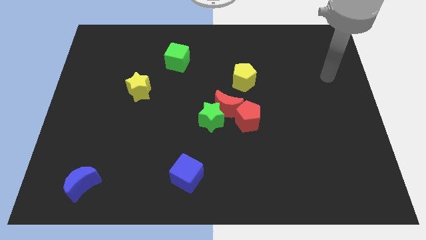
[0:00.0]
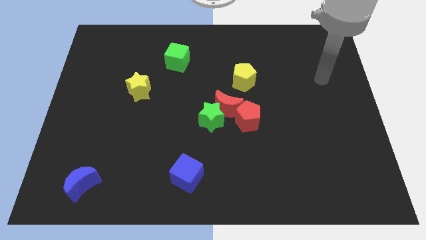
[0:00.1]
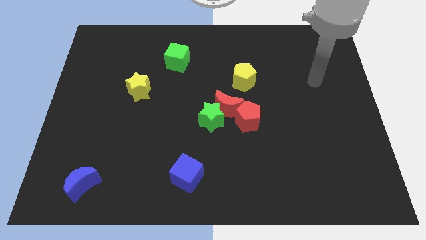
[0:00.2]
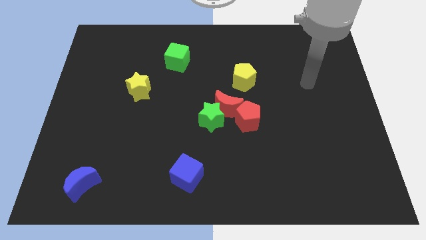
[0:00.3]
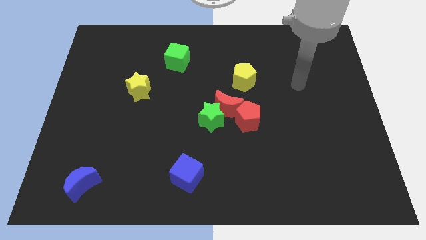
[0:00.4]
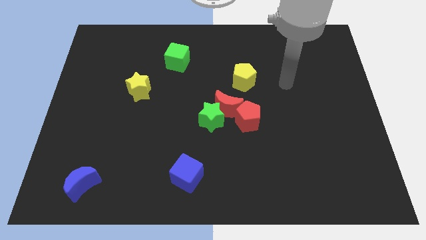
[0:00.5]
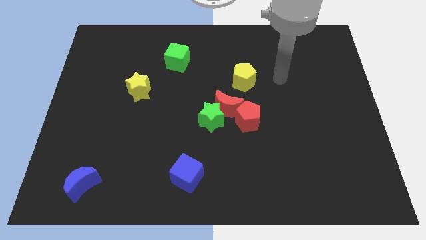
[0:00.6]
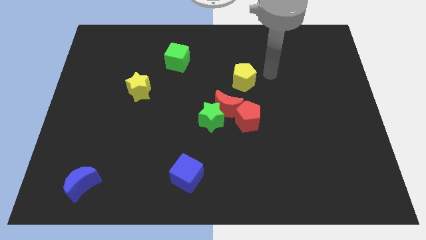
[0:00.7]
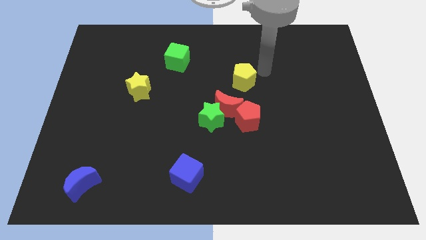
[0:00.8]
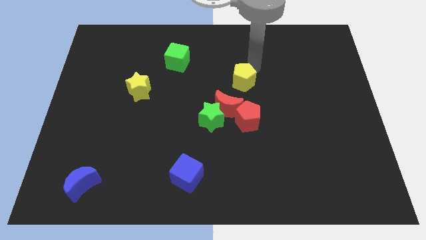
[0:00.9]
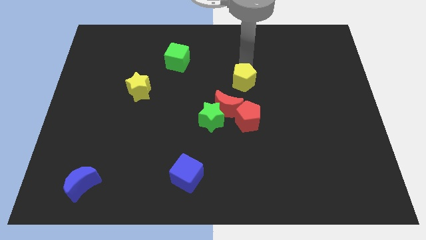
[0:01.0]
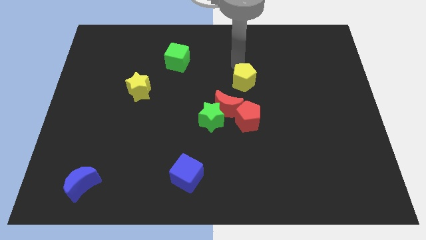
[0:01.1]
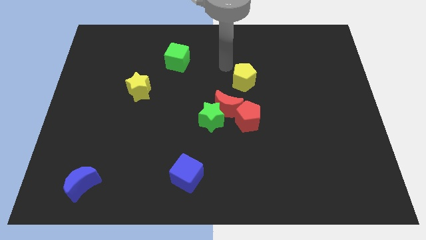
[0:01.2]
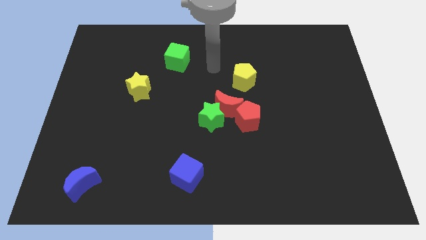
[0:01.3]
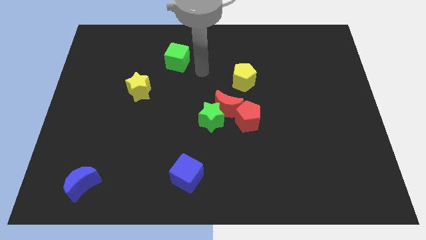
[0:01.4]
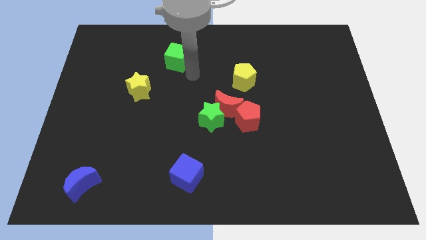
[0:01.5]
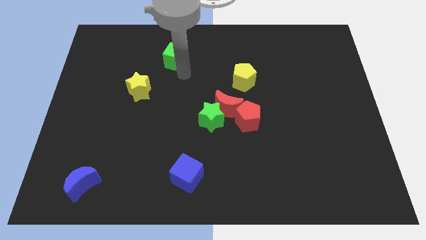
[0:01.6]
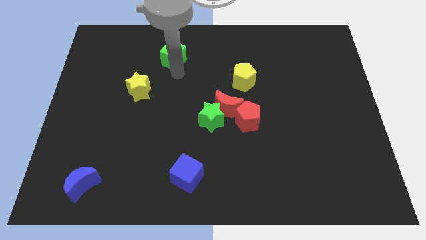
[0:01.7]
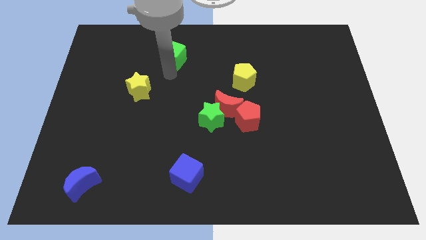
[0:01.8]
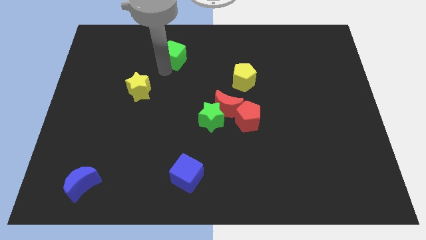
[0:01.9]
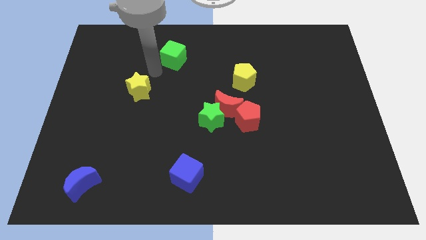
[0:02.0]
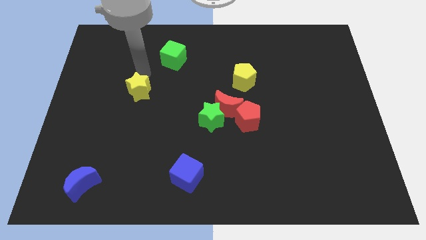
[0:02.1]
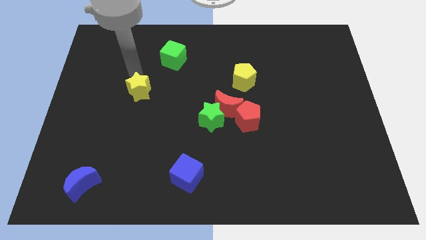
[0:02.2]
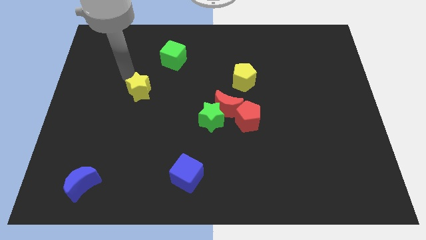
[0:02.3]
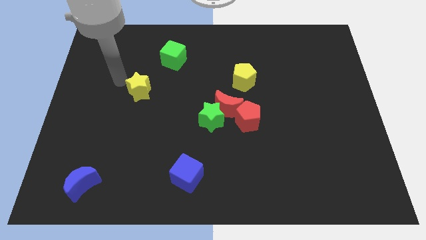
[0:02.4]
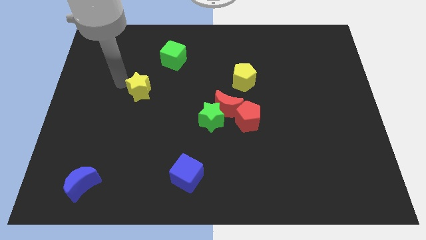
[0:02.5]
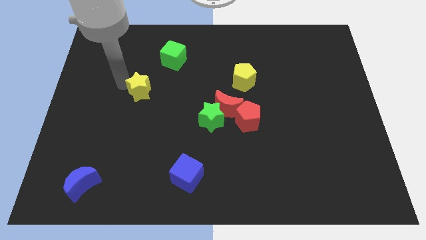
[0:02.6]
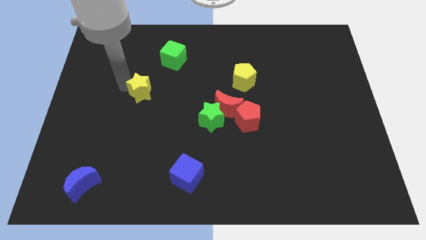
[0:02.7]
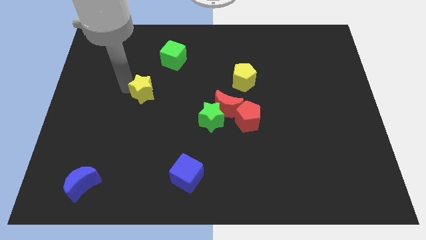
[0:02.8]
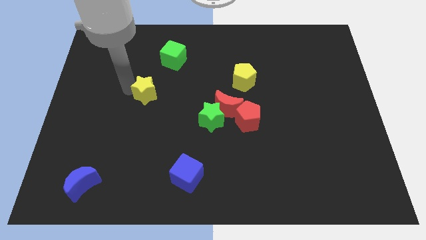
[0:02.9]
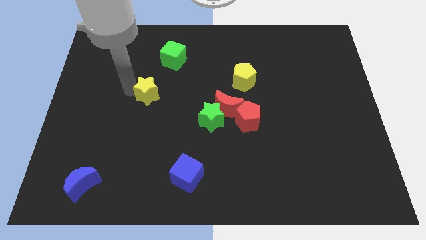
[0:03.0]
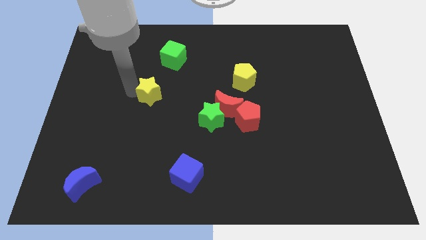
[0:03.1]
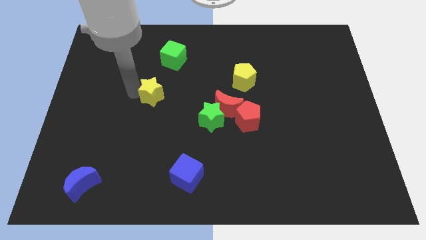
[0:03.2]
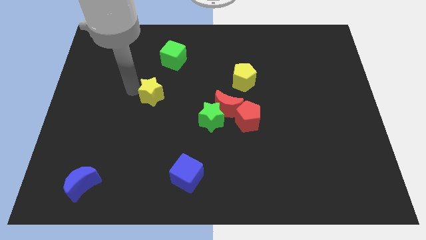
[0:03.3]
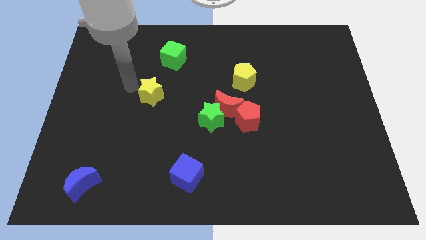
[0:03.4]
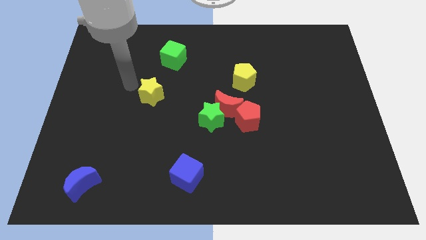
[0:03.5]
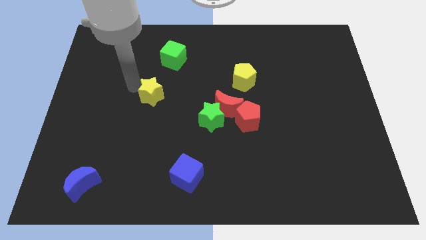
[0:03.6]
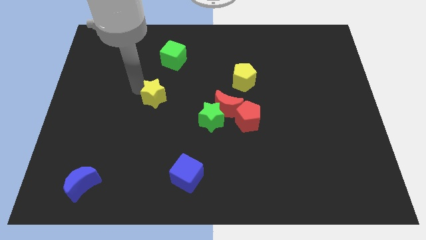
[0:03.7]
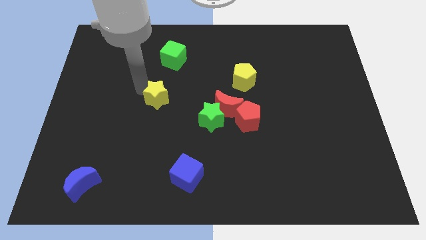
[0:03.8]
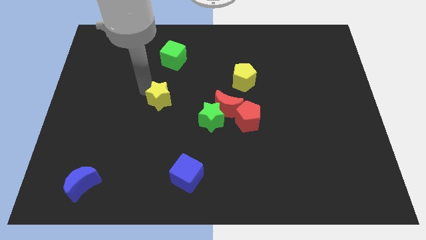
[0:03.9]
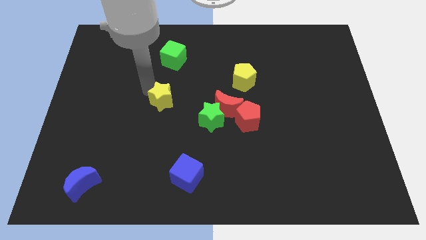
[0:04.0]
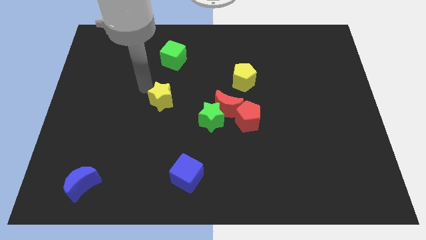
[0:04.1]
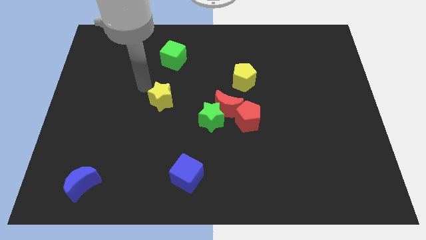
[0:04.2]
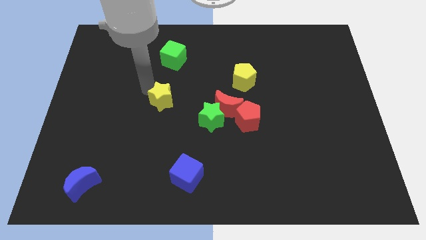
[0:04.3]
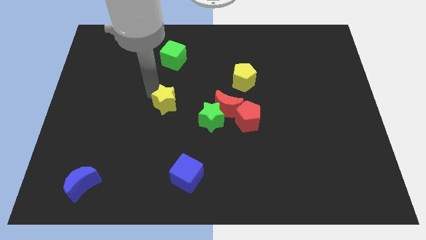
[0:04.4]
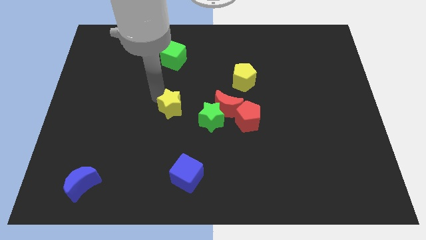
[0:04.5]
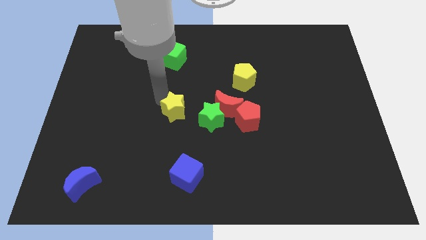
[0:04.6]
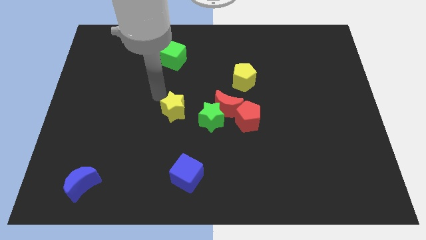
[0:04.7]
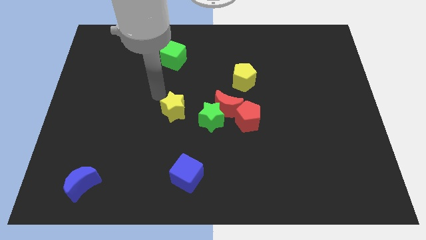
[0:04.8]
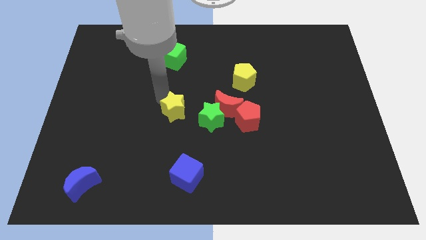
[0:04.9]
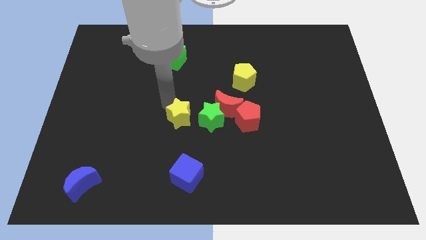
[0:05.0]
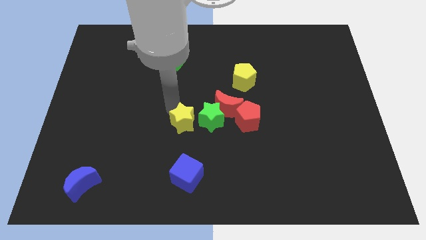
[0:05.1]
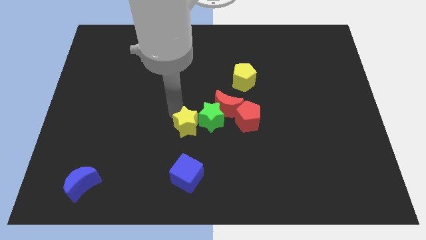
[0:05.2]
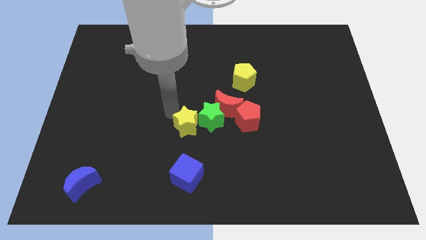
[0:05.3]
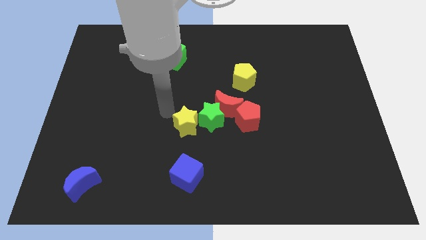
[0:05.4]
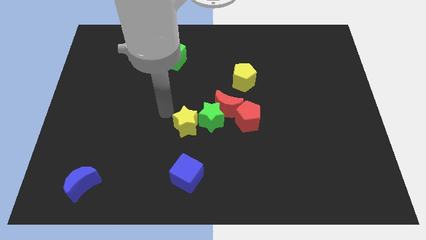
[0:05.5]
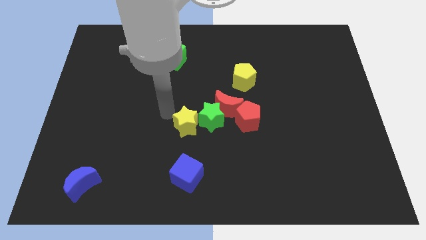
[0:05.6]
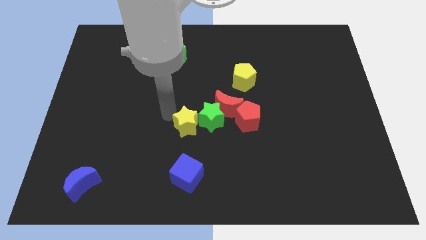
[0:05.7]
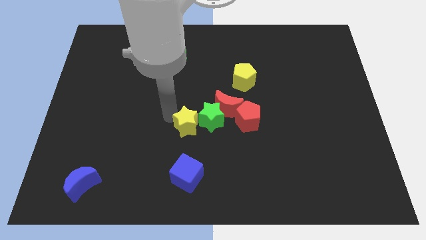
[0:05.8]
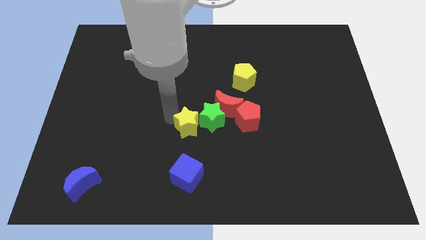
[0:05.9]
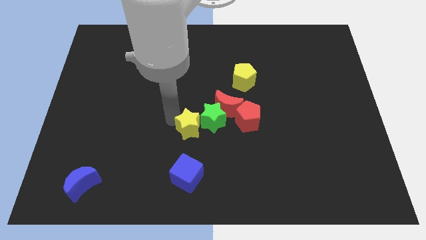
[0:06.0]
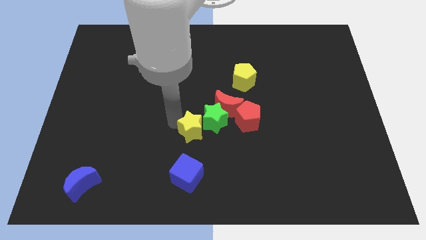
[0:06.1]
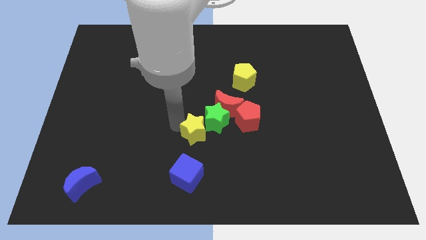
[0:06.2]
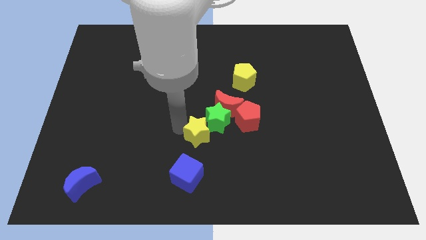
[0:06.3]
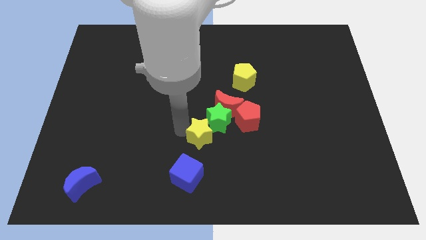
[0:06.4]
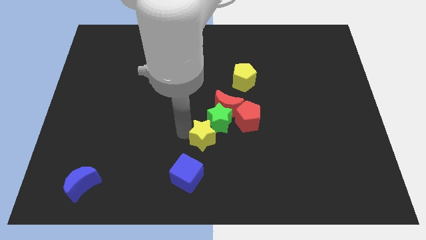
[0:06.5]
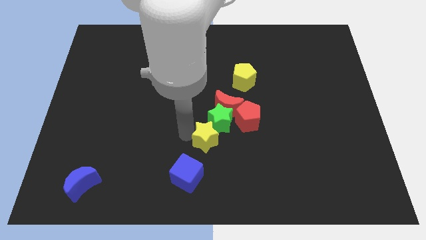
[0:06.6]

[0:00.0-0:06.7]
put the yellow star below the red moon
